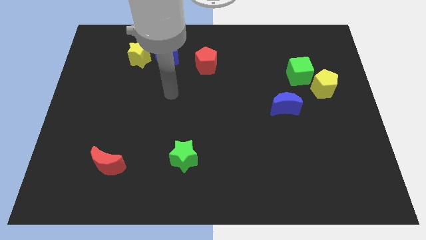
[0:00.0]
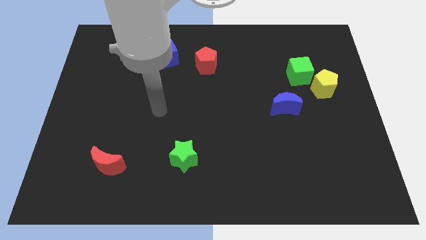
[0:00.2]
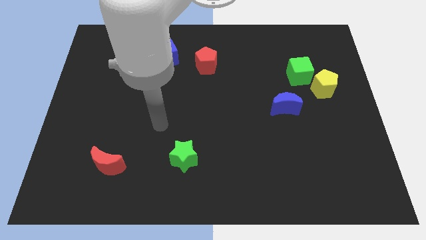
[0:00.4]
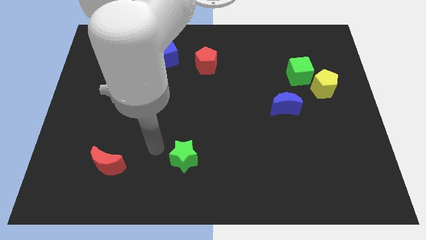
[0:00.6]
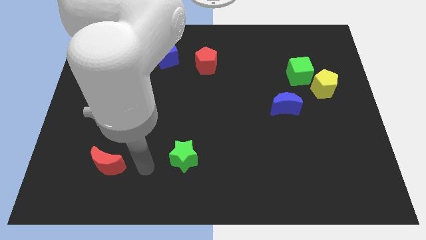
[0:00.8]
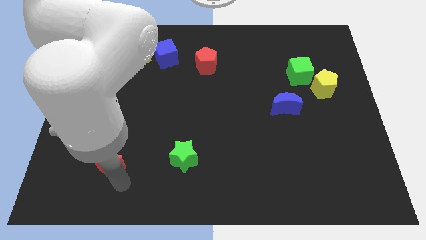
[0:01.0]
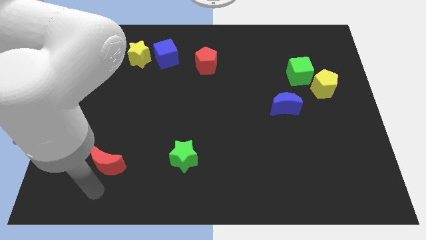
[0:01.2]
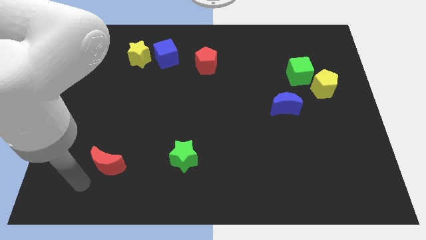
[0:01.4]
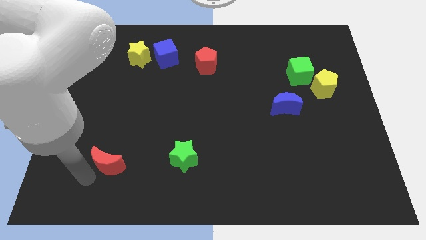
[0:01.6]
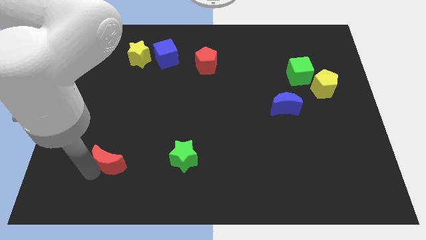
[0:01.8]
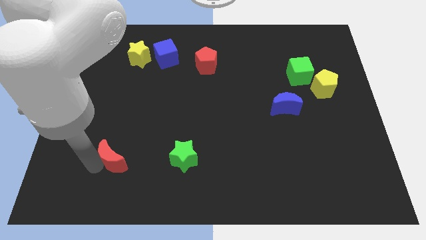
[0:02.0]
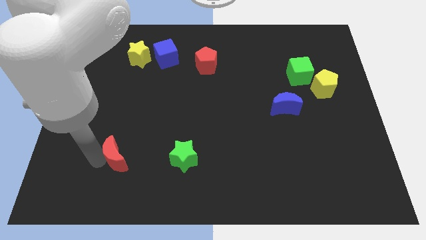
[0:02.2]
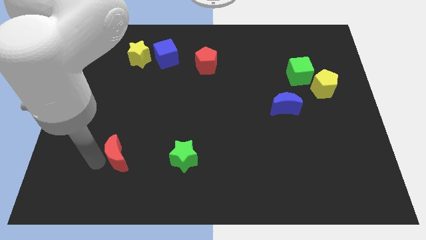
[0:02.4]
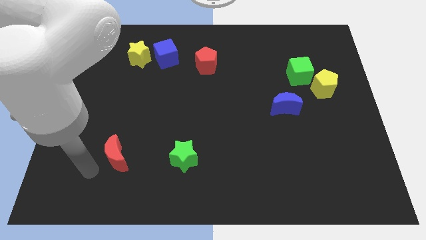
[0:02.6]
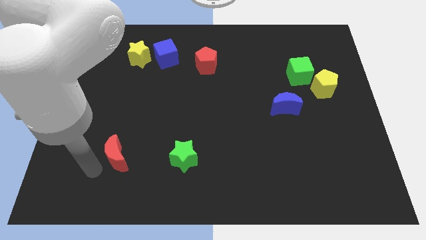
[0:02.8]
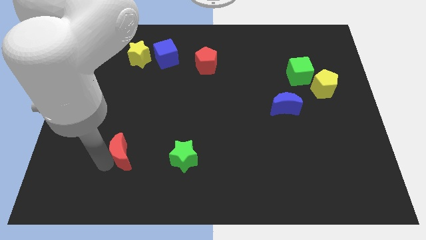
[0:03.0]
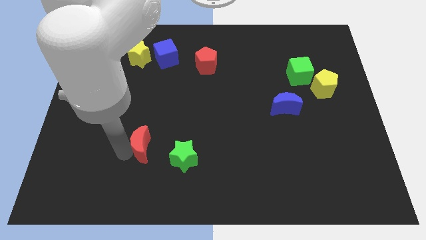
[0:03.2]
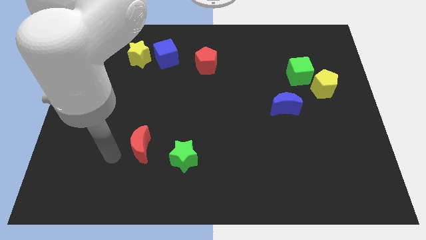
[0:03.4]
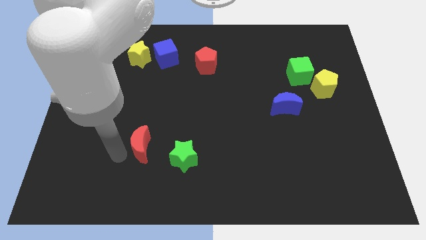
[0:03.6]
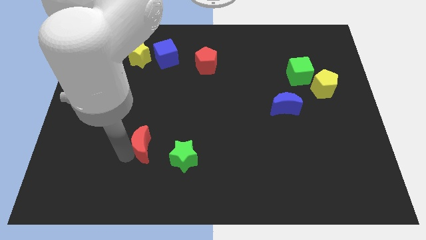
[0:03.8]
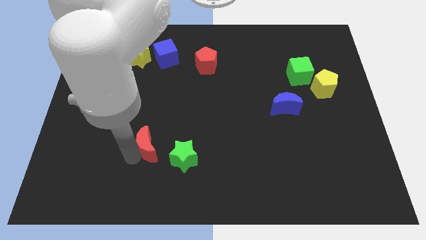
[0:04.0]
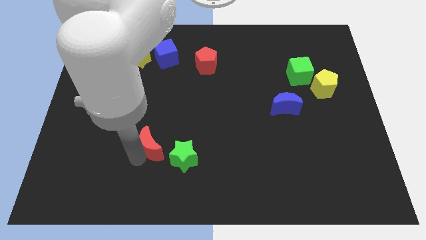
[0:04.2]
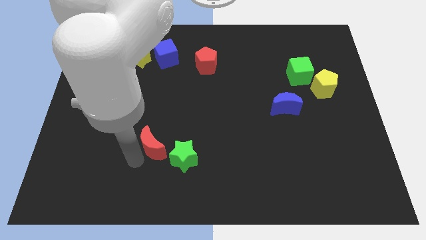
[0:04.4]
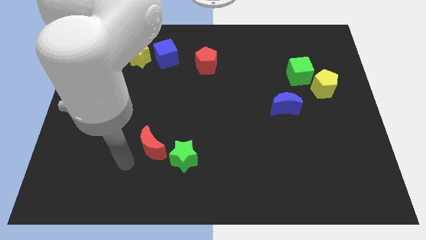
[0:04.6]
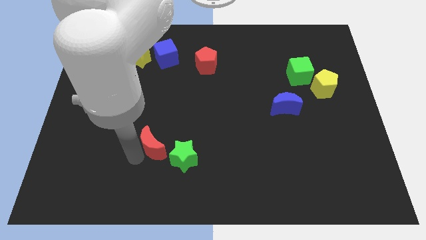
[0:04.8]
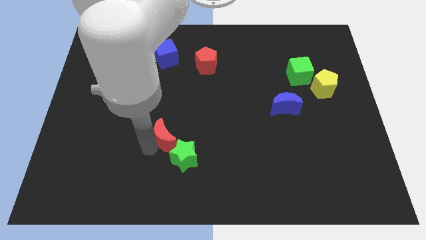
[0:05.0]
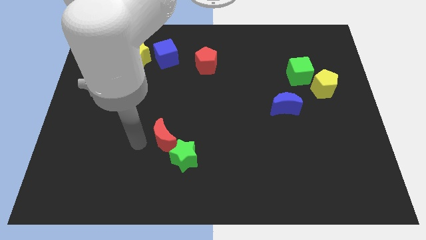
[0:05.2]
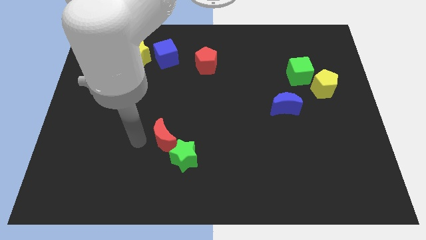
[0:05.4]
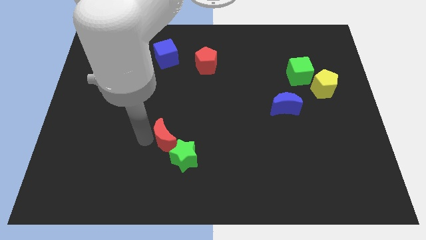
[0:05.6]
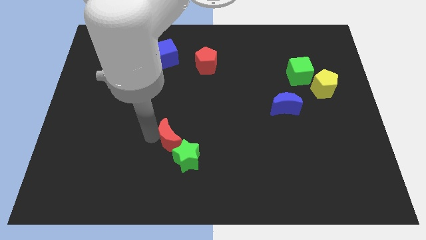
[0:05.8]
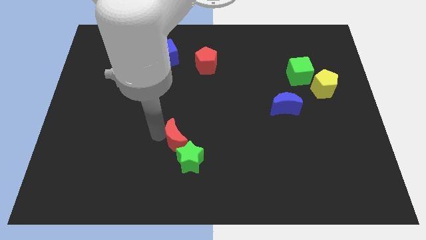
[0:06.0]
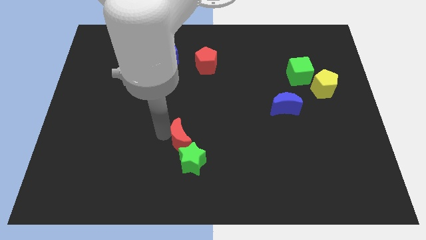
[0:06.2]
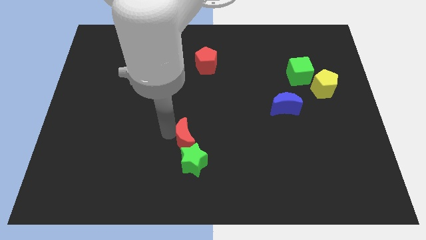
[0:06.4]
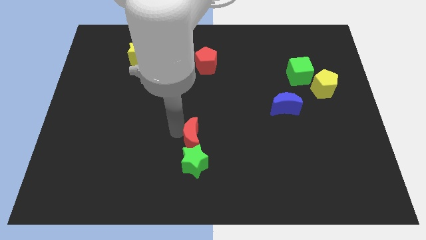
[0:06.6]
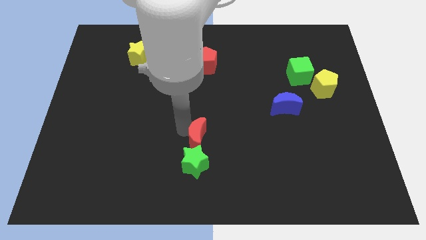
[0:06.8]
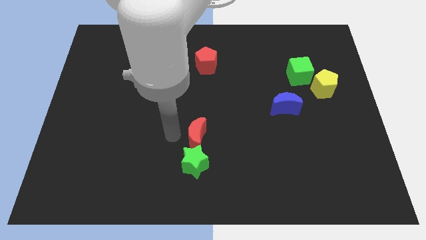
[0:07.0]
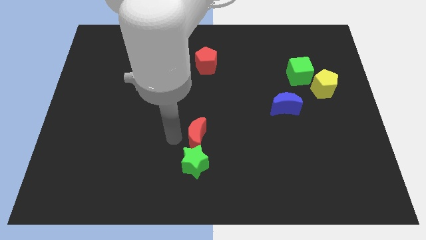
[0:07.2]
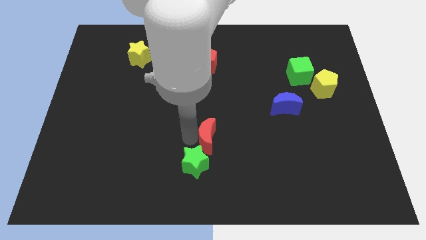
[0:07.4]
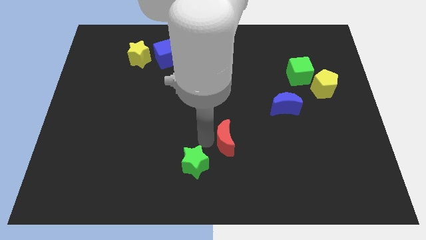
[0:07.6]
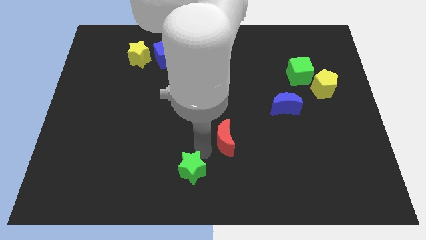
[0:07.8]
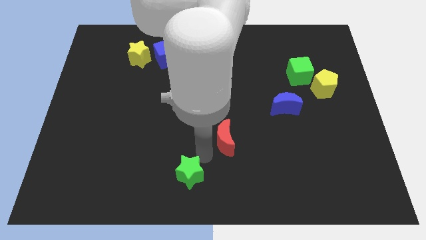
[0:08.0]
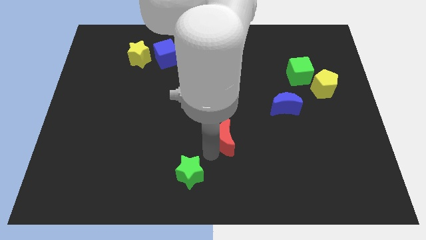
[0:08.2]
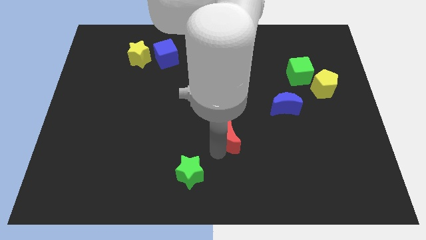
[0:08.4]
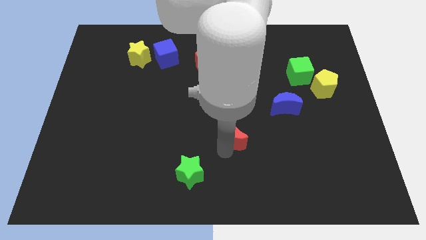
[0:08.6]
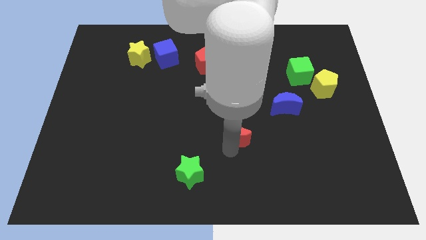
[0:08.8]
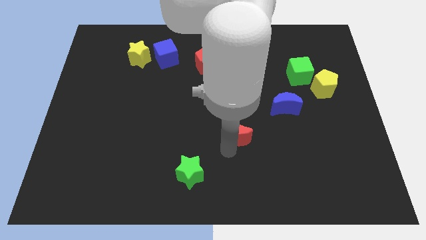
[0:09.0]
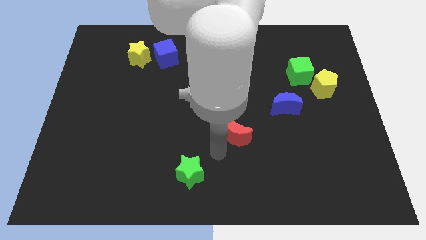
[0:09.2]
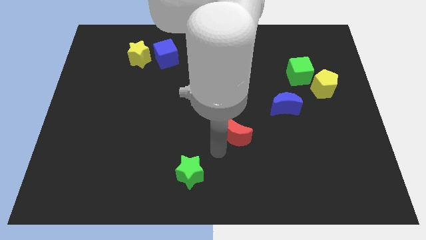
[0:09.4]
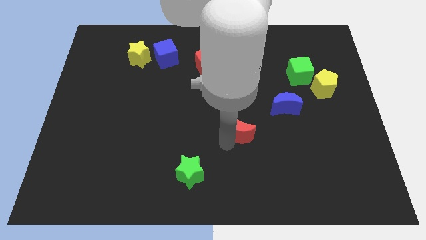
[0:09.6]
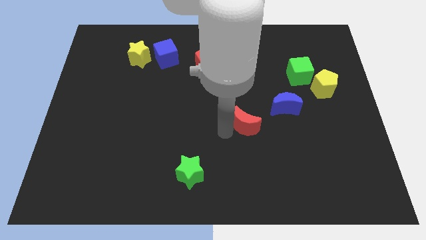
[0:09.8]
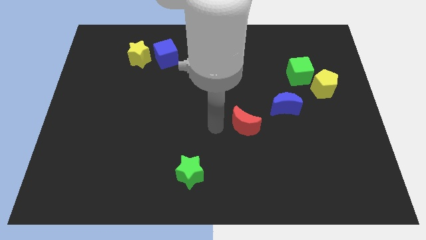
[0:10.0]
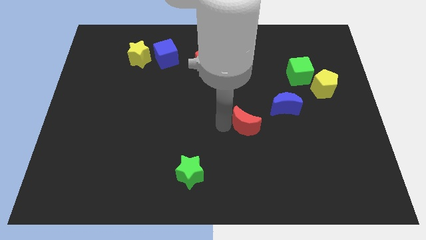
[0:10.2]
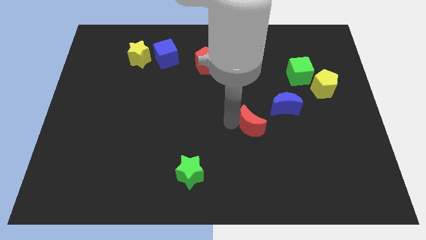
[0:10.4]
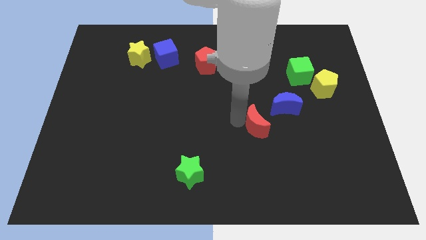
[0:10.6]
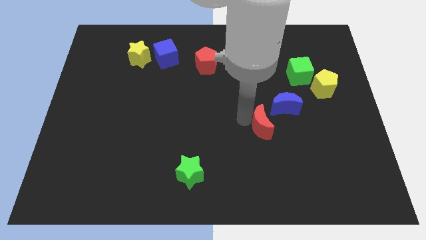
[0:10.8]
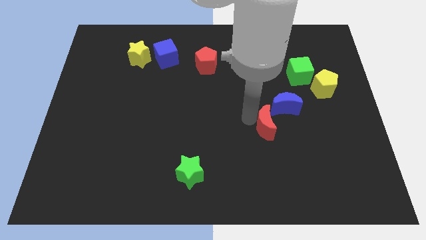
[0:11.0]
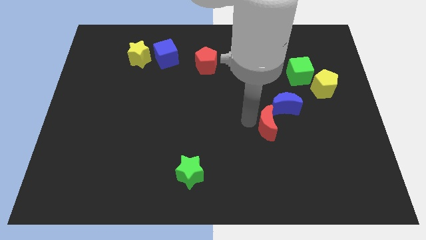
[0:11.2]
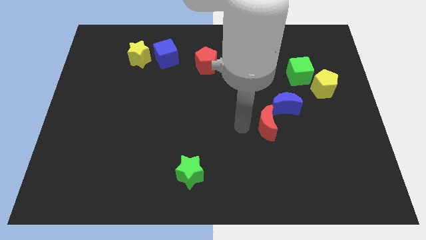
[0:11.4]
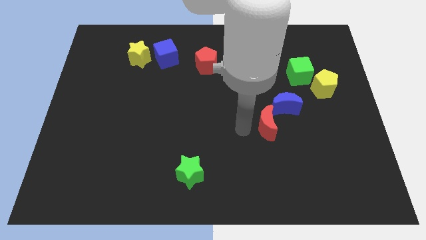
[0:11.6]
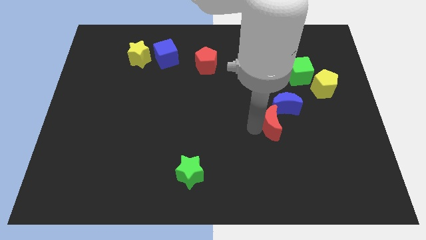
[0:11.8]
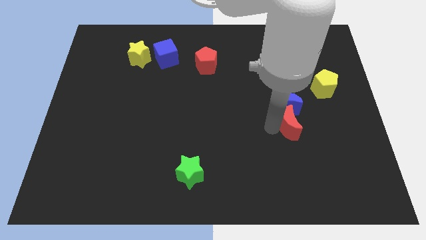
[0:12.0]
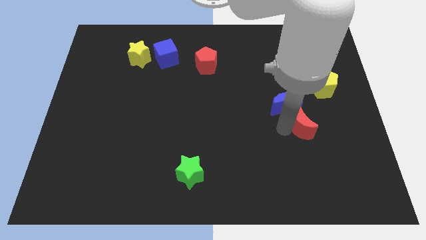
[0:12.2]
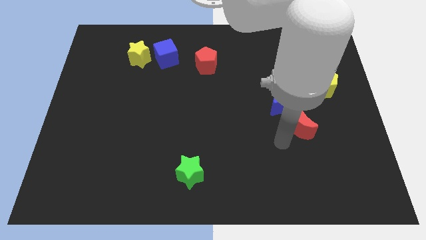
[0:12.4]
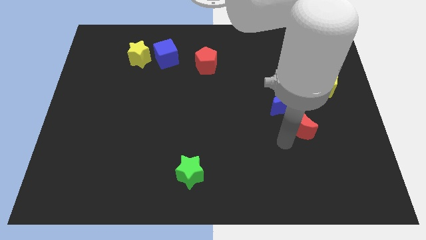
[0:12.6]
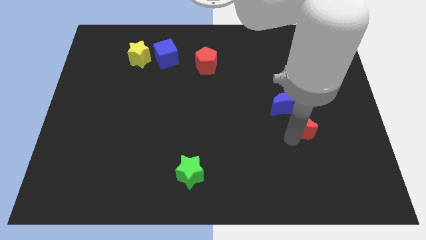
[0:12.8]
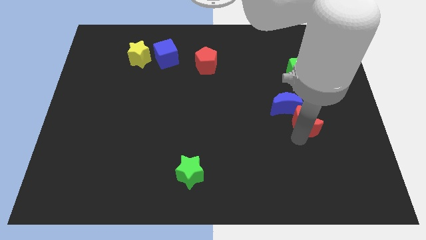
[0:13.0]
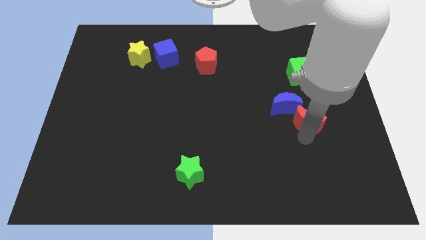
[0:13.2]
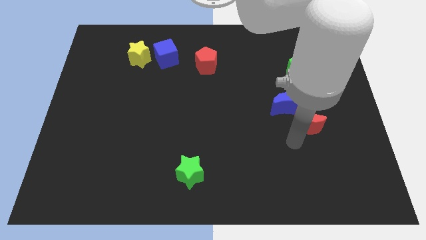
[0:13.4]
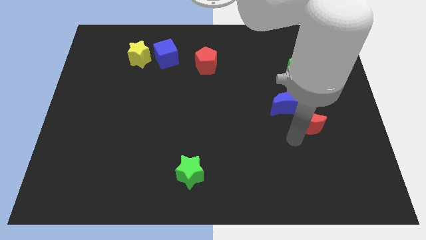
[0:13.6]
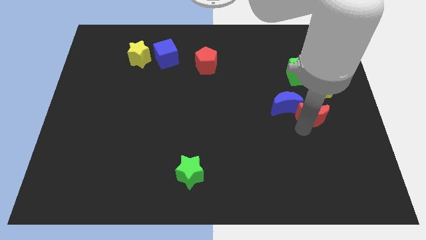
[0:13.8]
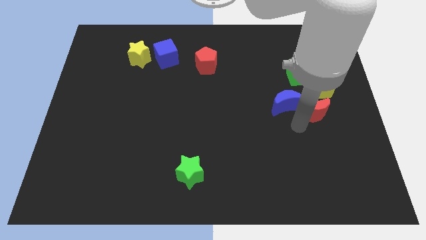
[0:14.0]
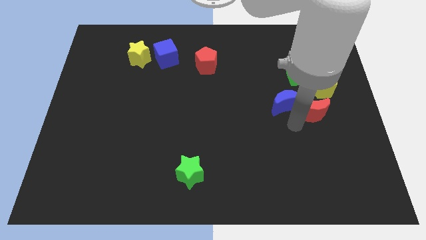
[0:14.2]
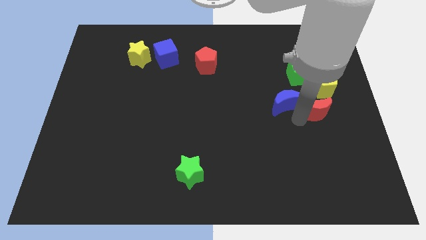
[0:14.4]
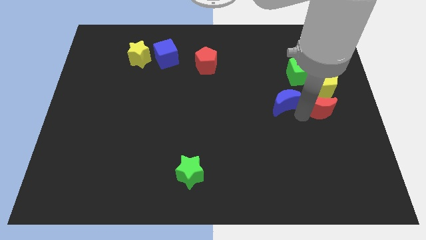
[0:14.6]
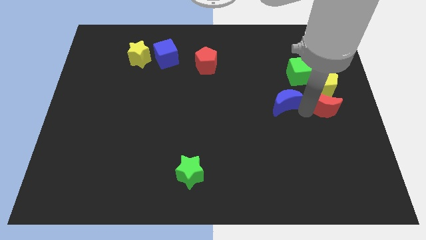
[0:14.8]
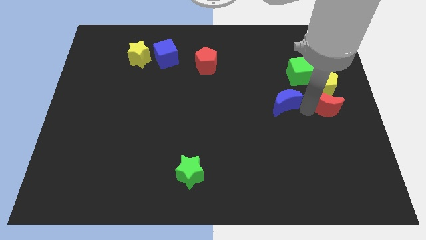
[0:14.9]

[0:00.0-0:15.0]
put the red moon diagonally down and to the right of the green cube
